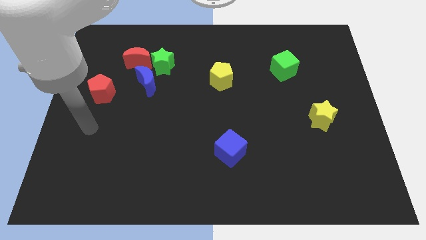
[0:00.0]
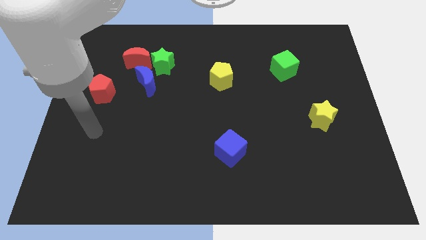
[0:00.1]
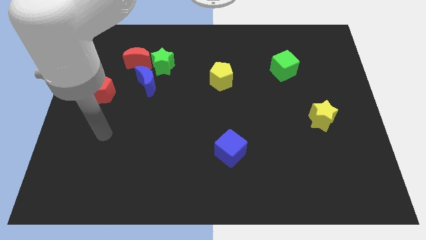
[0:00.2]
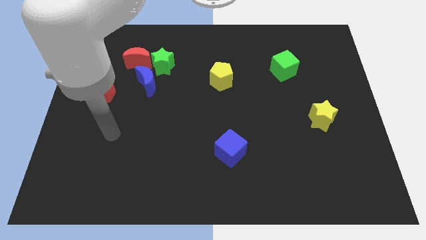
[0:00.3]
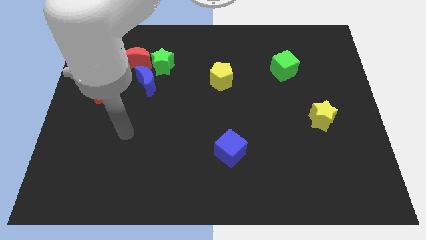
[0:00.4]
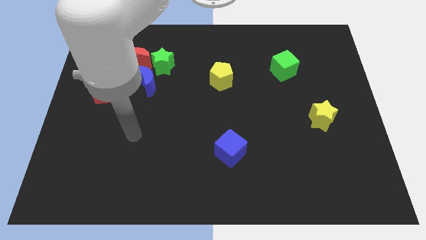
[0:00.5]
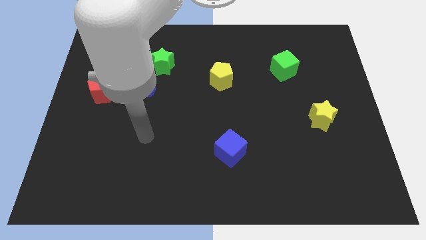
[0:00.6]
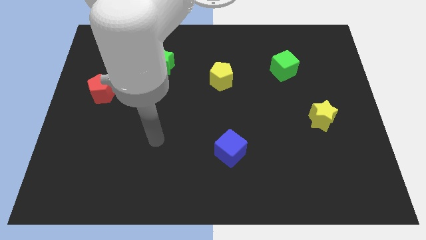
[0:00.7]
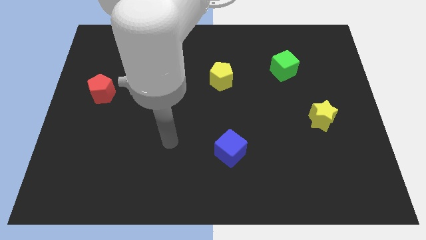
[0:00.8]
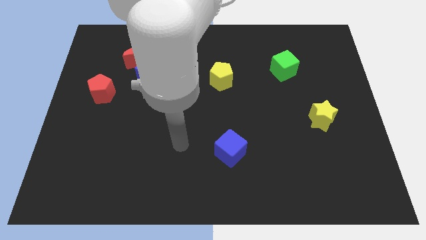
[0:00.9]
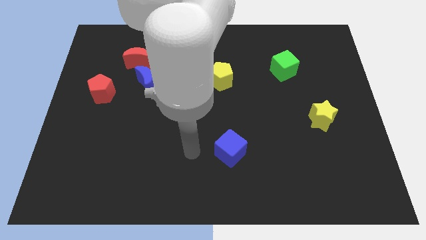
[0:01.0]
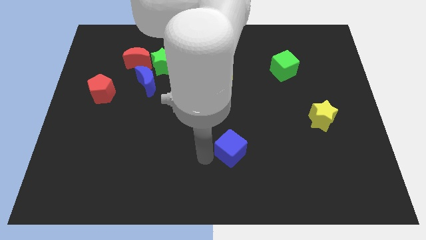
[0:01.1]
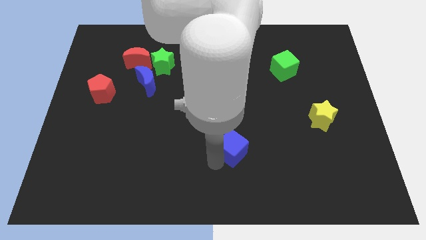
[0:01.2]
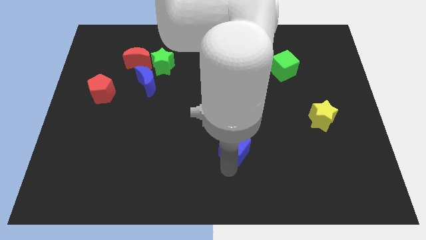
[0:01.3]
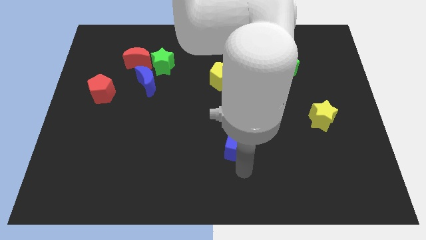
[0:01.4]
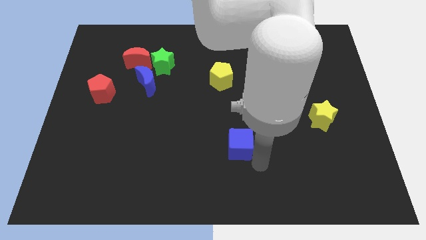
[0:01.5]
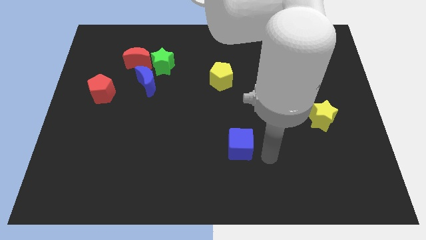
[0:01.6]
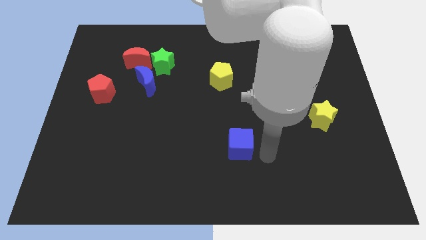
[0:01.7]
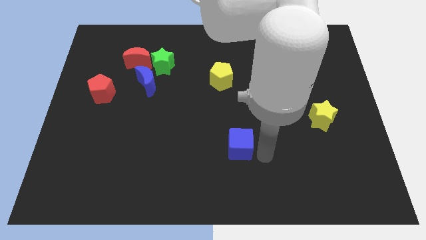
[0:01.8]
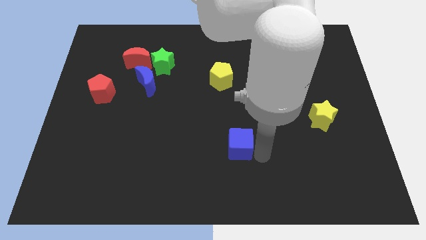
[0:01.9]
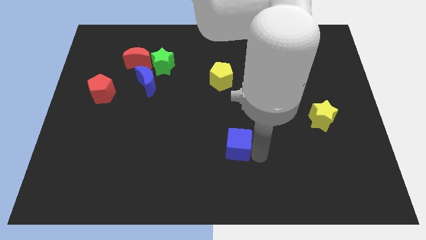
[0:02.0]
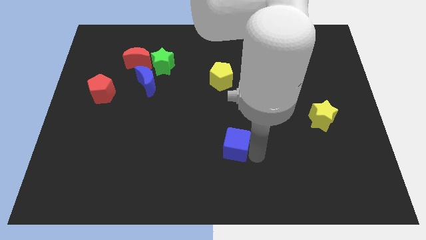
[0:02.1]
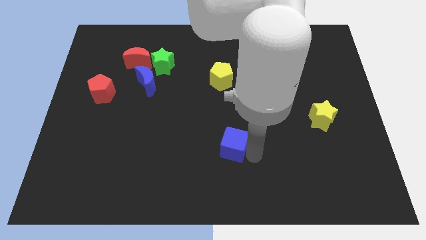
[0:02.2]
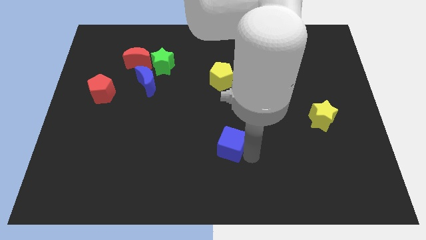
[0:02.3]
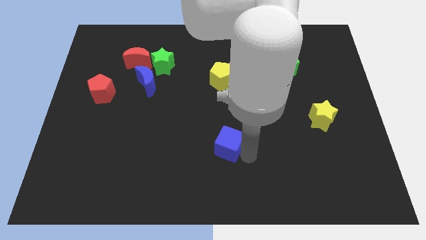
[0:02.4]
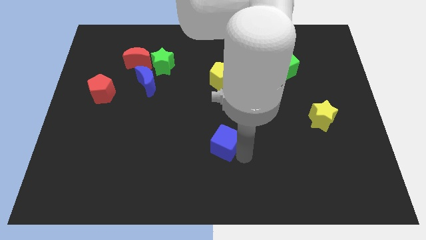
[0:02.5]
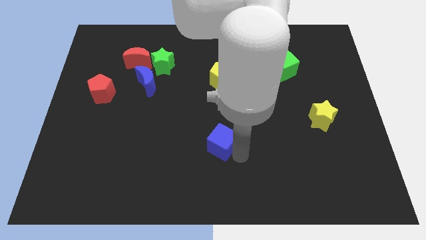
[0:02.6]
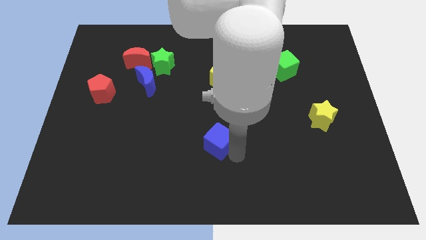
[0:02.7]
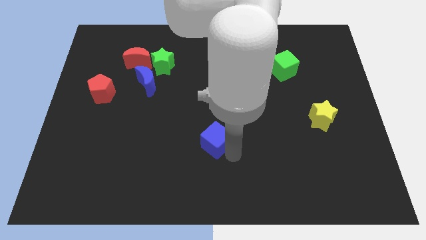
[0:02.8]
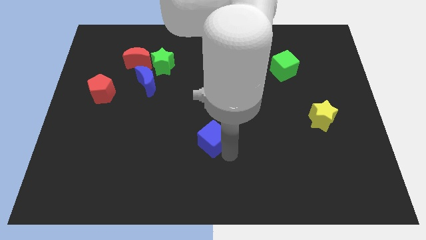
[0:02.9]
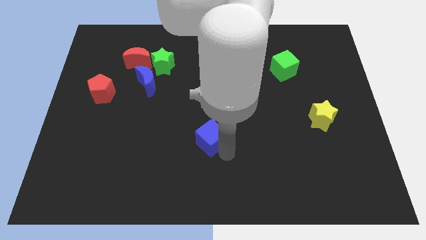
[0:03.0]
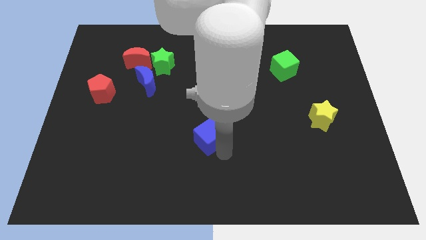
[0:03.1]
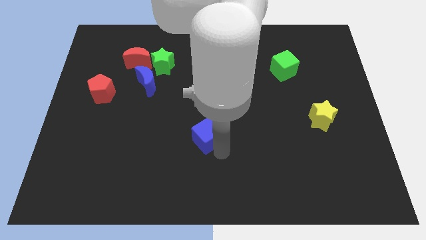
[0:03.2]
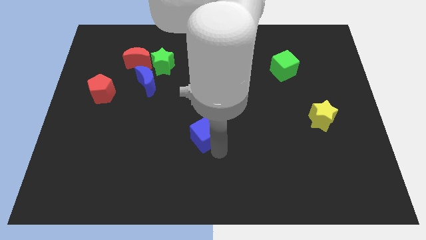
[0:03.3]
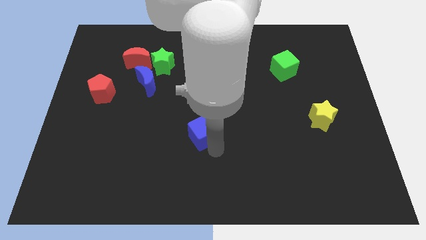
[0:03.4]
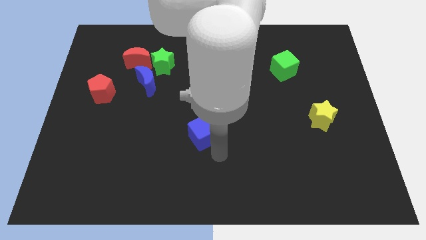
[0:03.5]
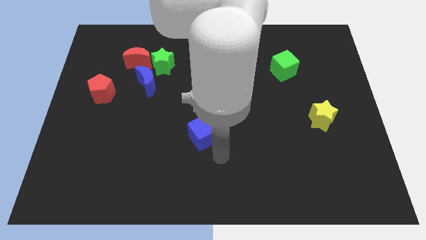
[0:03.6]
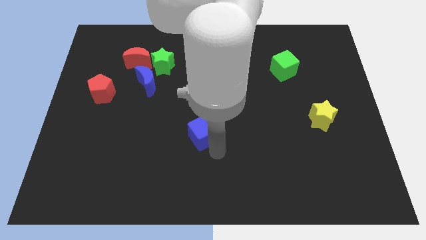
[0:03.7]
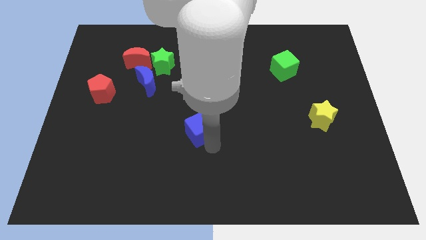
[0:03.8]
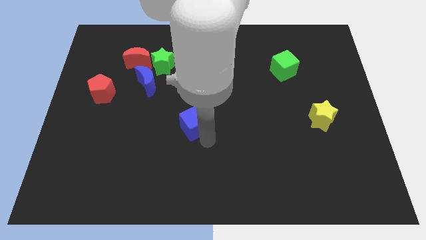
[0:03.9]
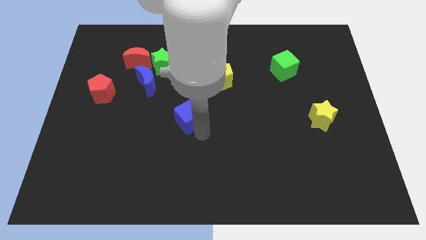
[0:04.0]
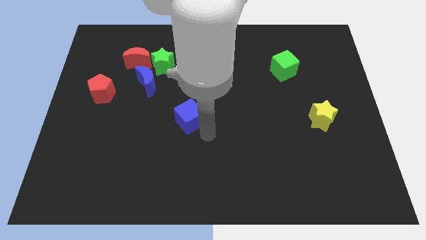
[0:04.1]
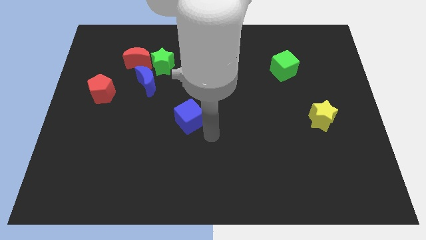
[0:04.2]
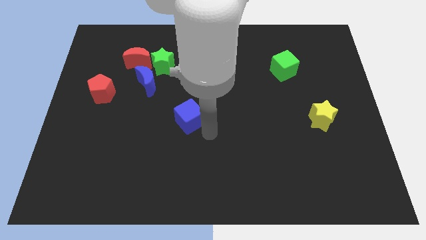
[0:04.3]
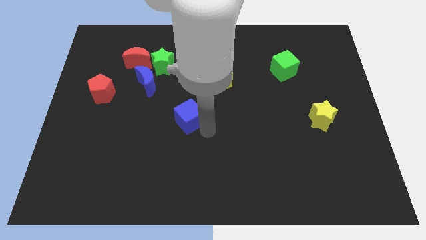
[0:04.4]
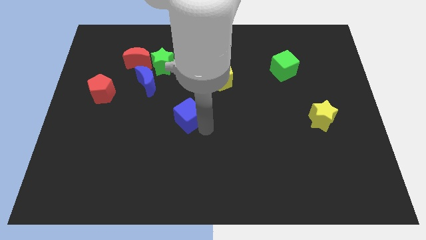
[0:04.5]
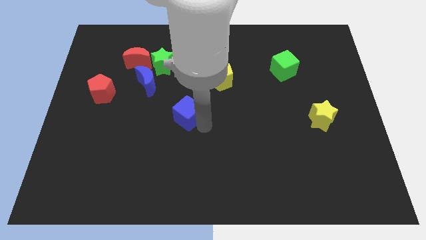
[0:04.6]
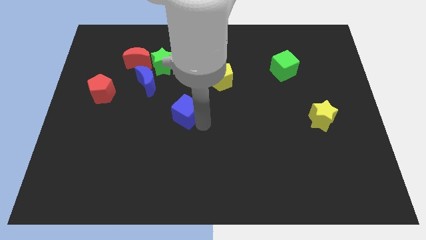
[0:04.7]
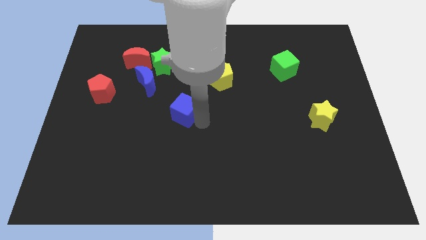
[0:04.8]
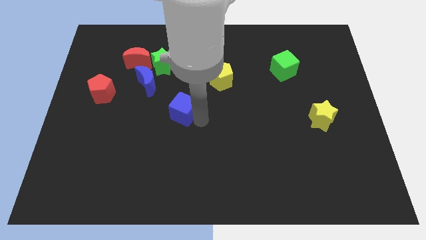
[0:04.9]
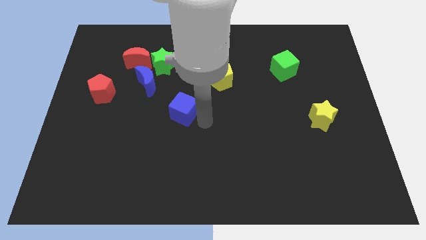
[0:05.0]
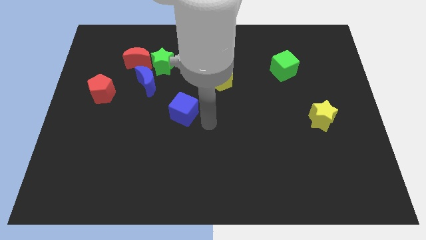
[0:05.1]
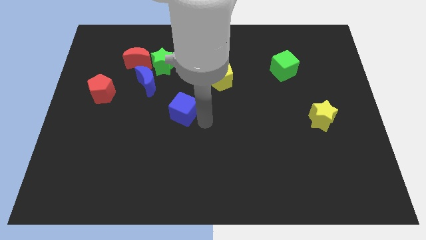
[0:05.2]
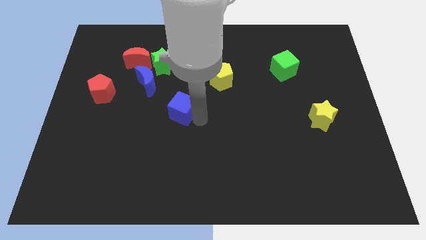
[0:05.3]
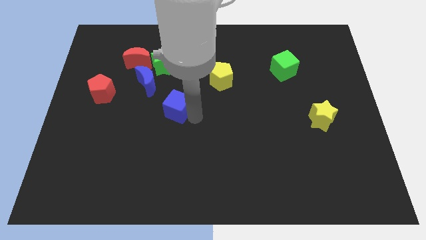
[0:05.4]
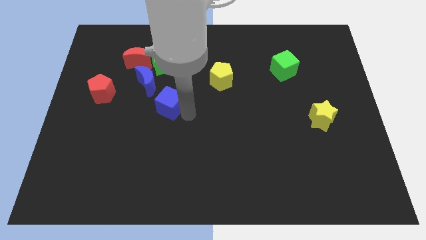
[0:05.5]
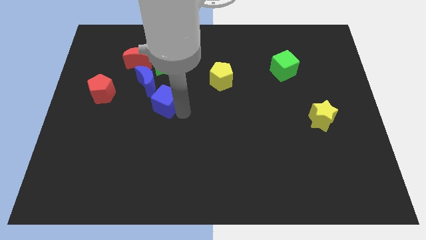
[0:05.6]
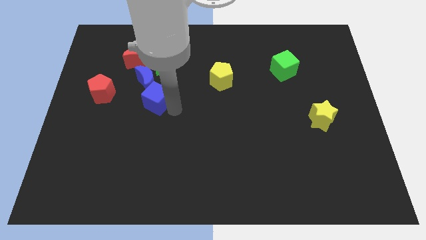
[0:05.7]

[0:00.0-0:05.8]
slide the blue cube next to the blue moon

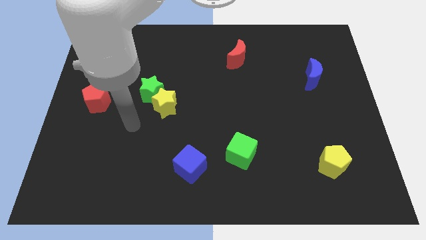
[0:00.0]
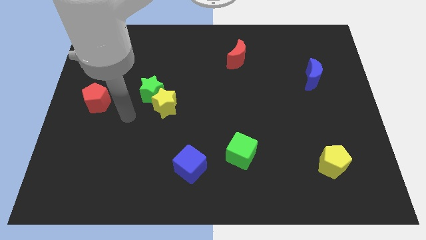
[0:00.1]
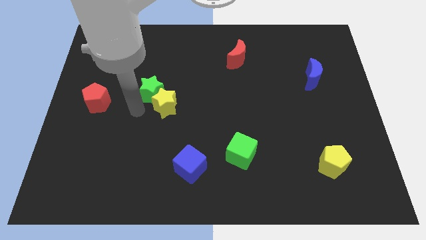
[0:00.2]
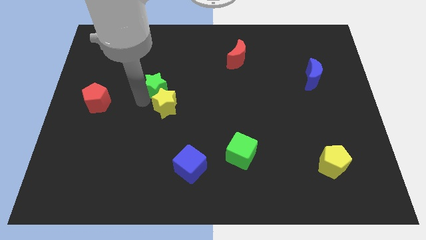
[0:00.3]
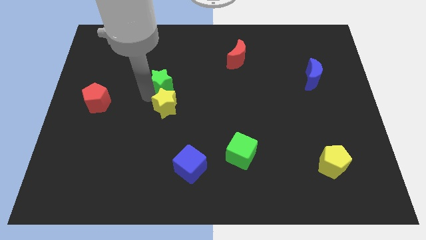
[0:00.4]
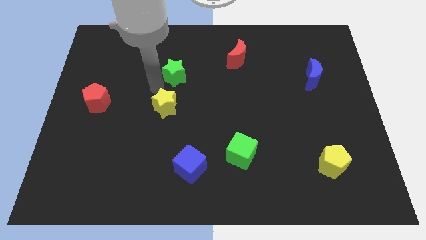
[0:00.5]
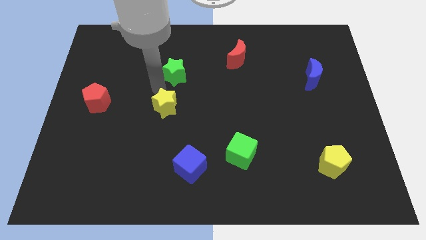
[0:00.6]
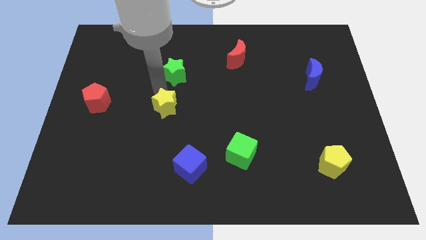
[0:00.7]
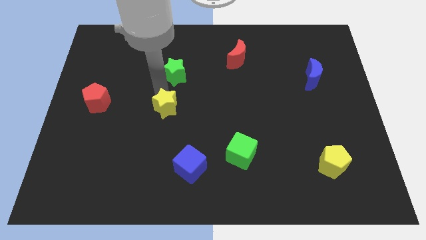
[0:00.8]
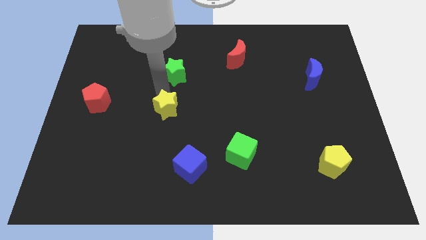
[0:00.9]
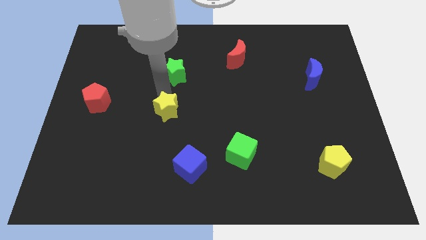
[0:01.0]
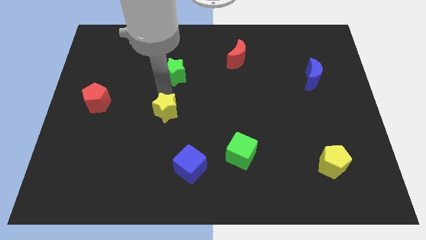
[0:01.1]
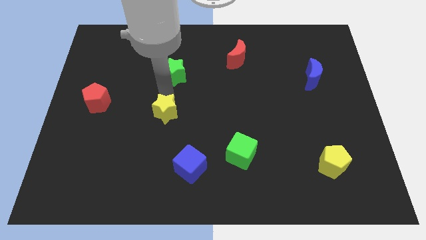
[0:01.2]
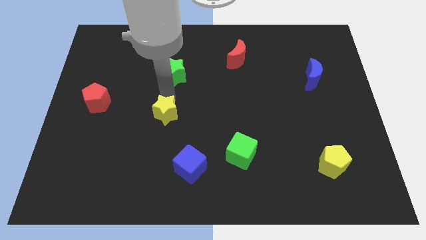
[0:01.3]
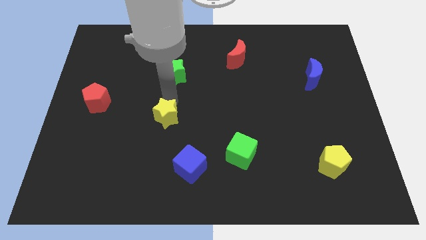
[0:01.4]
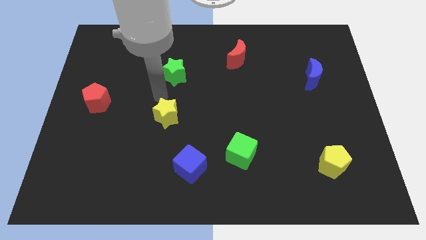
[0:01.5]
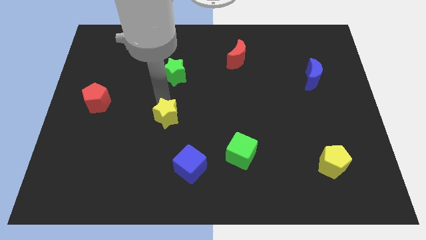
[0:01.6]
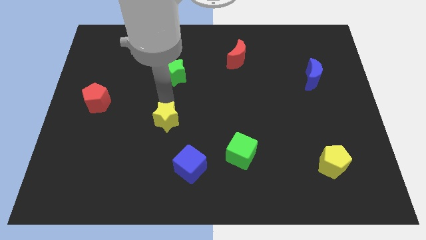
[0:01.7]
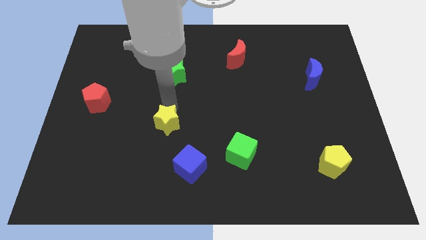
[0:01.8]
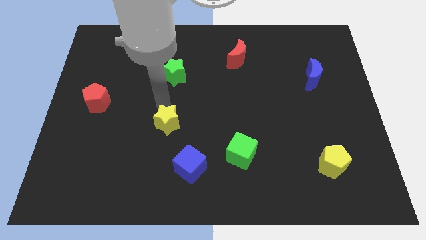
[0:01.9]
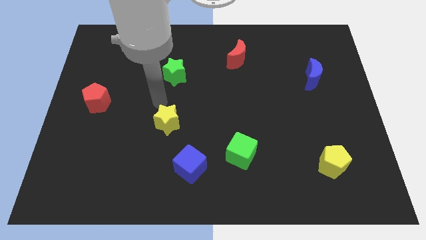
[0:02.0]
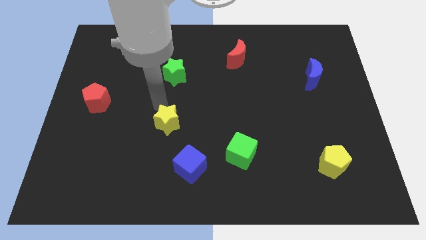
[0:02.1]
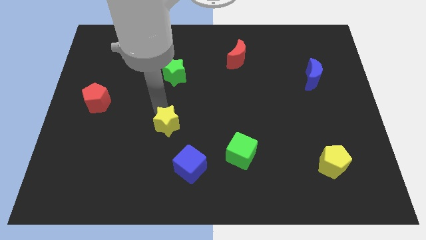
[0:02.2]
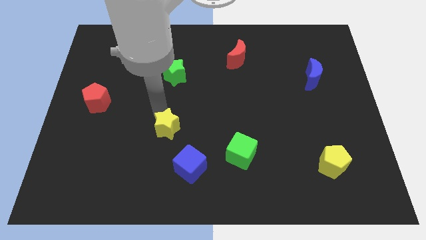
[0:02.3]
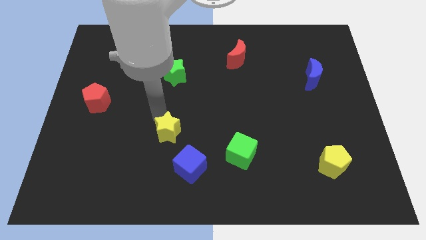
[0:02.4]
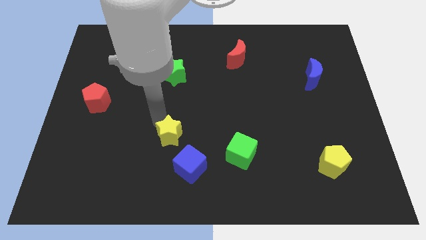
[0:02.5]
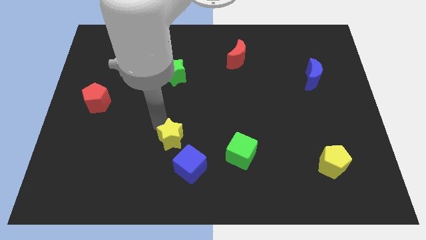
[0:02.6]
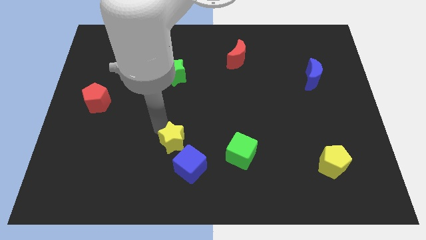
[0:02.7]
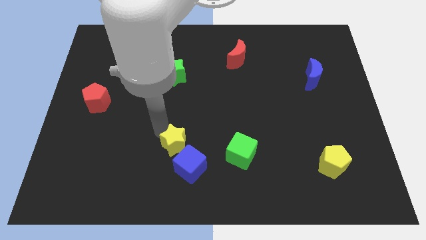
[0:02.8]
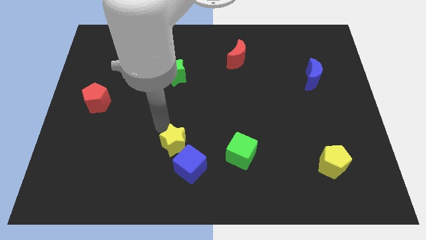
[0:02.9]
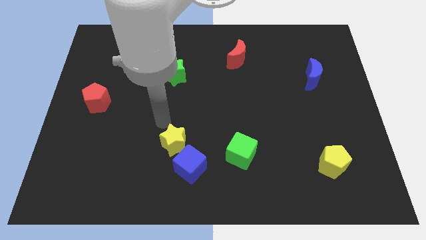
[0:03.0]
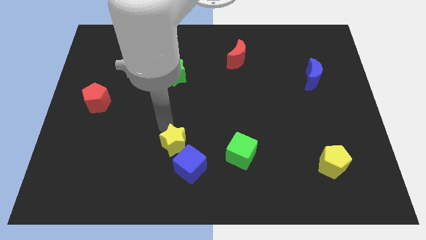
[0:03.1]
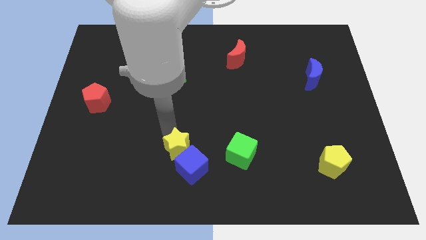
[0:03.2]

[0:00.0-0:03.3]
move the yellow star next to the blue cube
